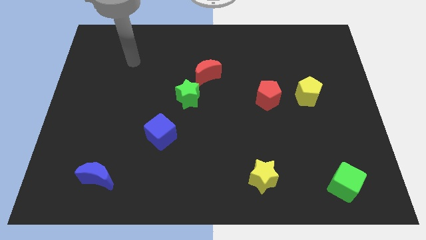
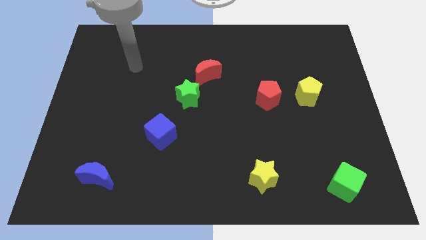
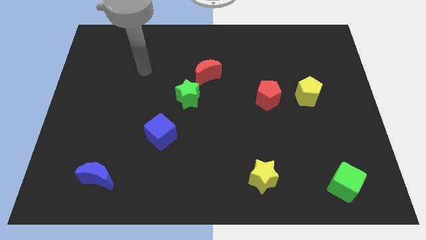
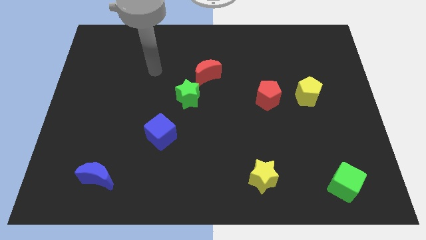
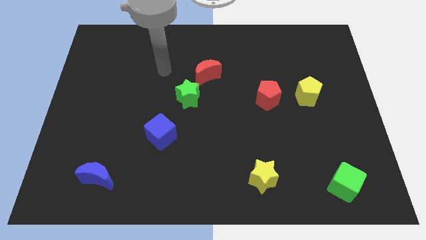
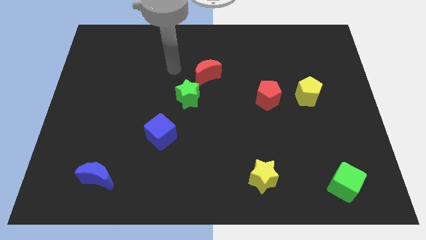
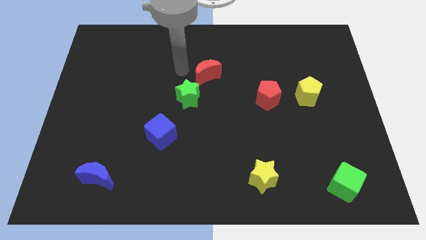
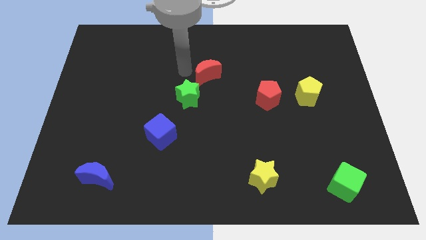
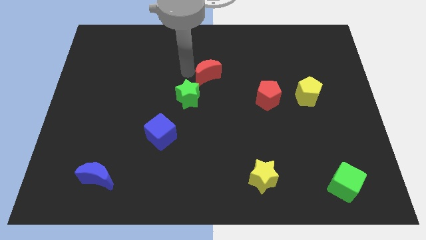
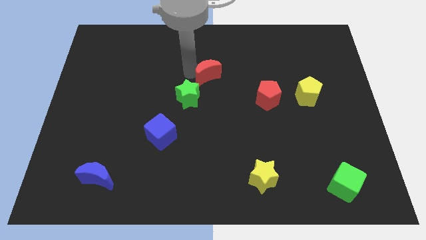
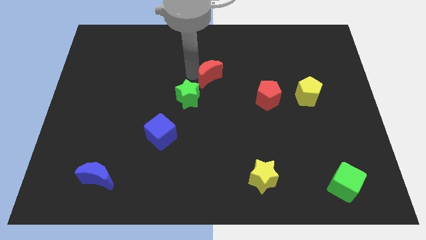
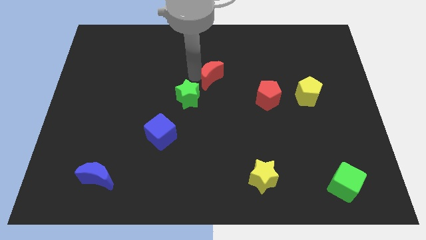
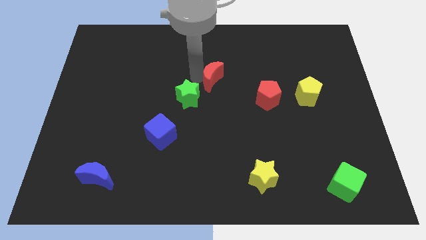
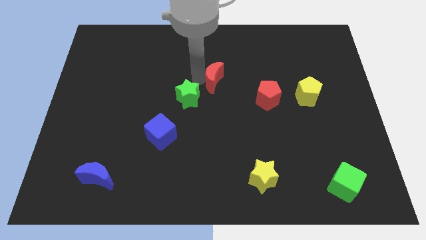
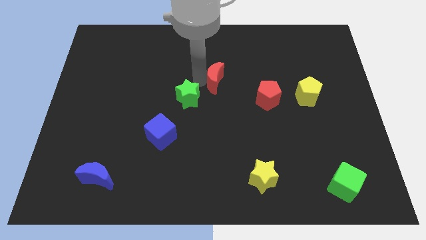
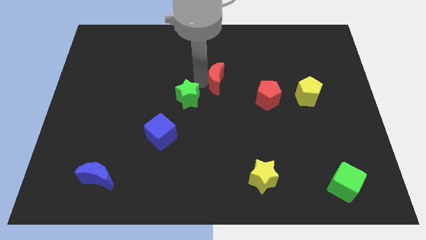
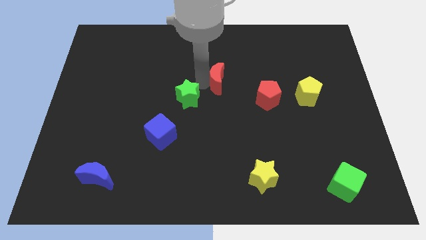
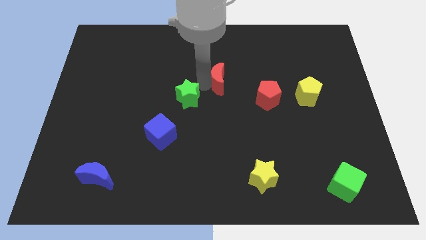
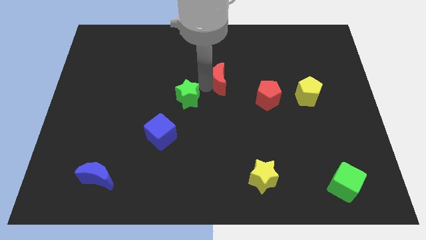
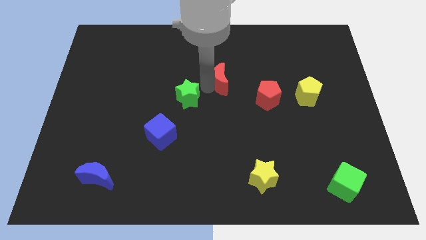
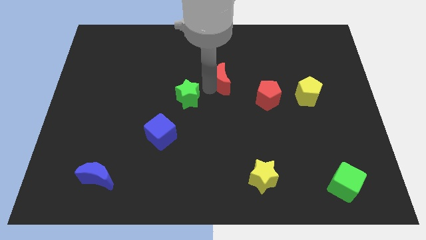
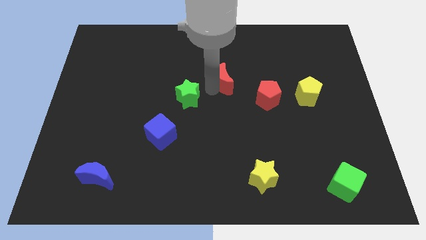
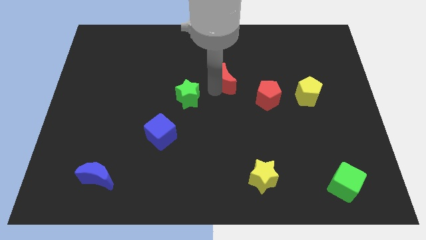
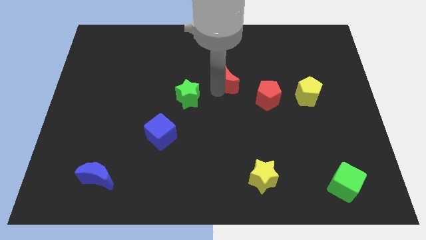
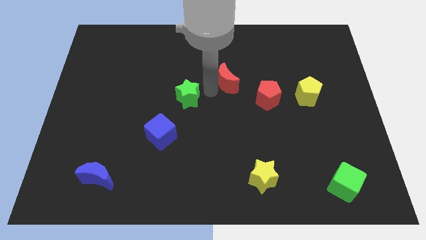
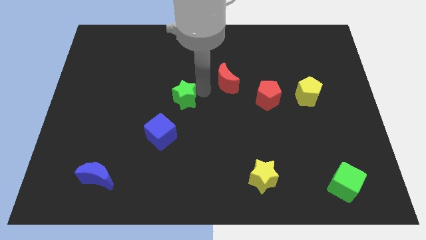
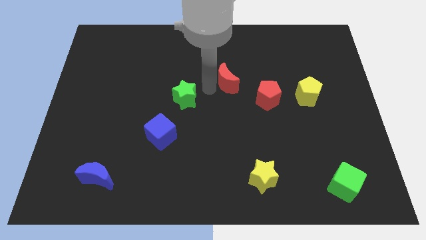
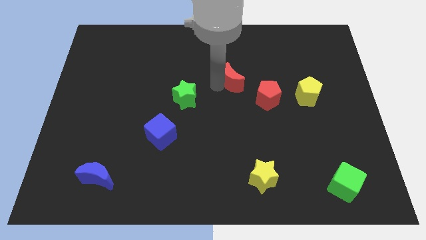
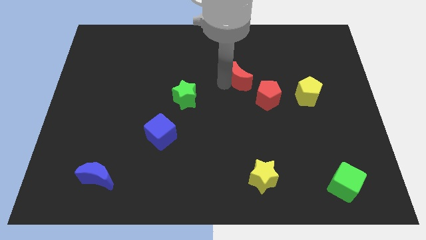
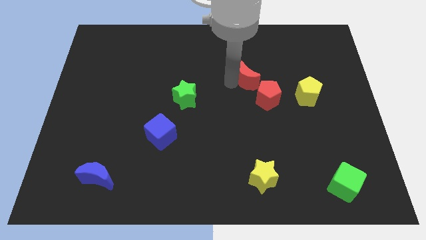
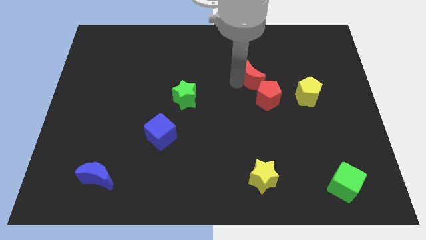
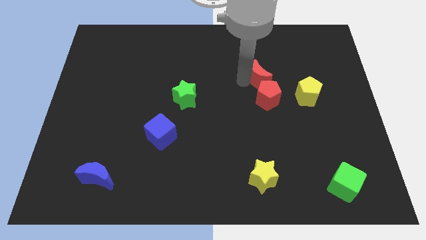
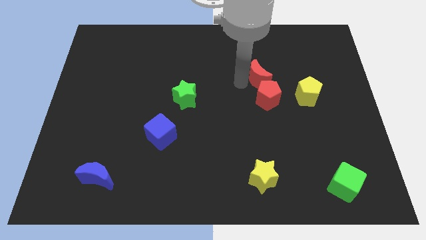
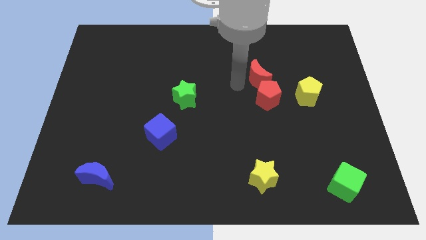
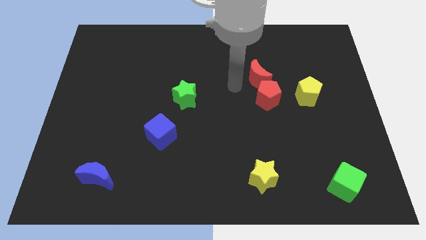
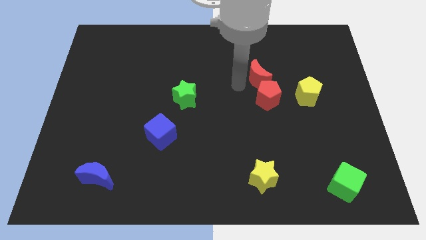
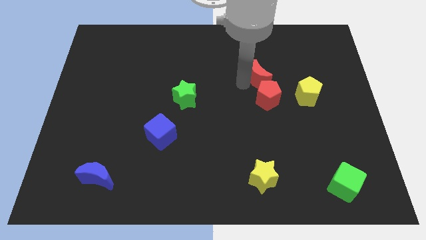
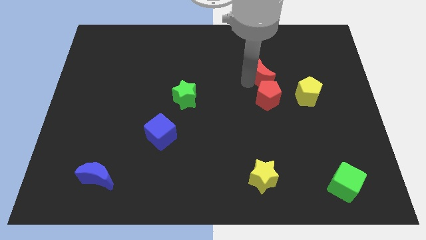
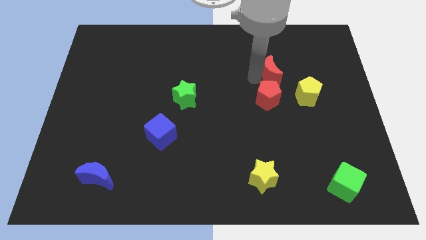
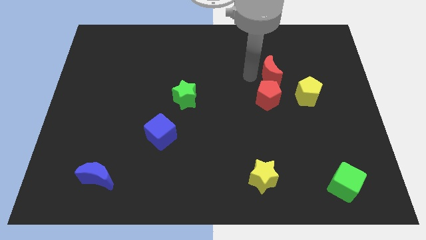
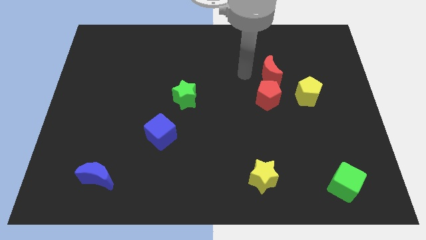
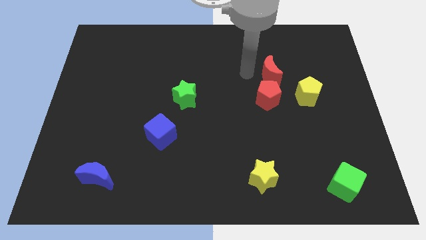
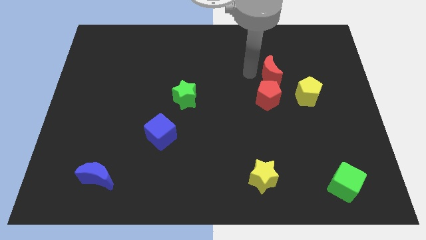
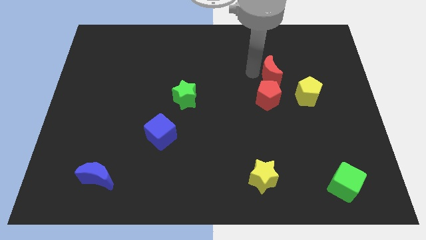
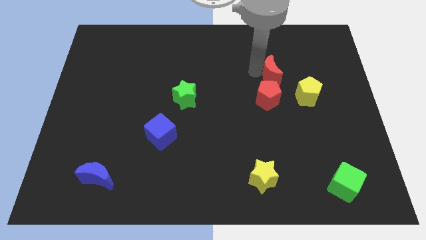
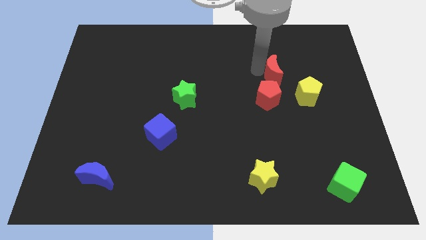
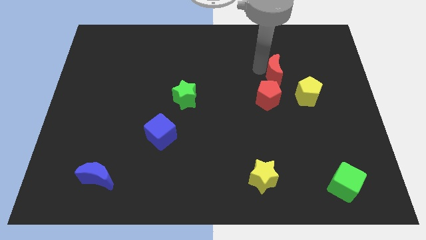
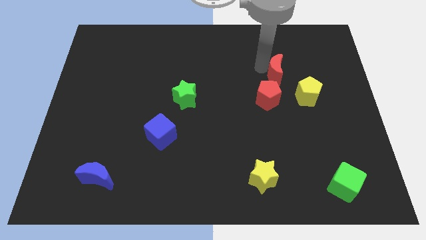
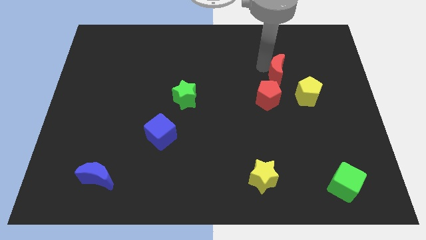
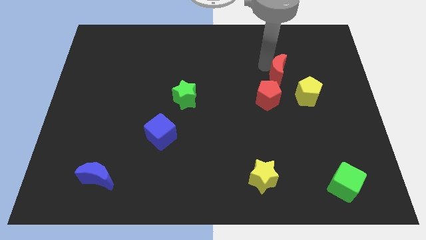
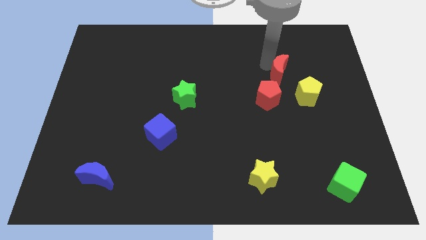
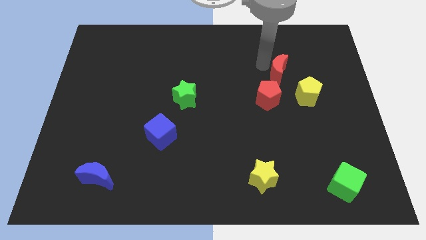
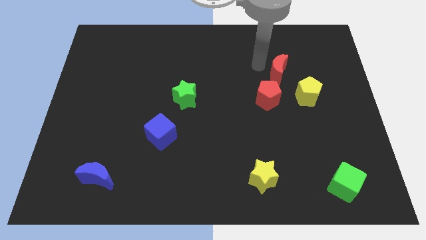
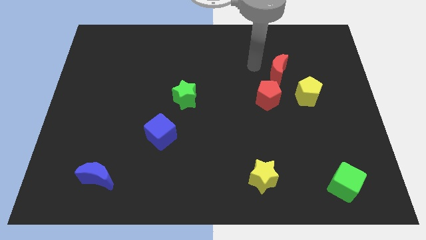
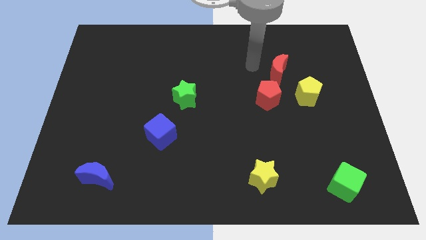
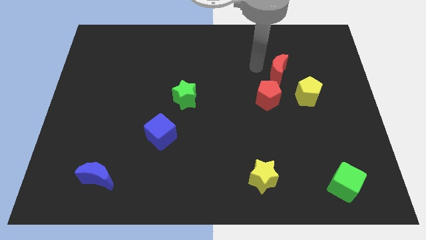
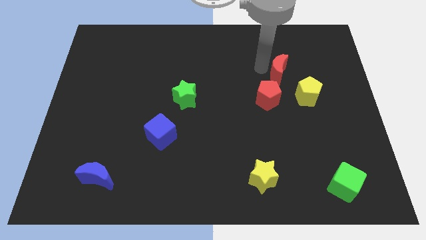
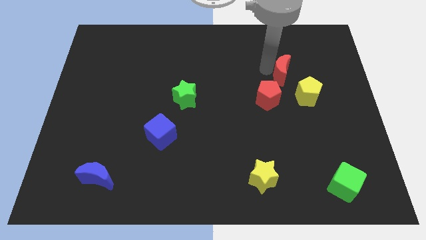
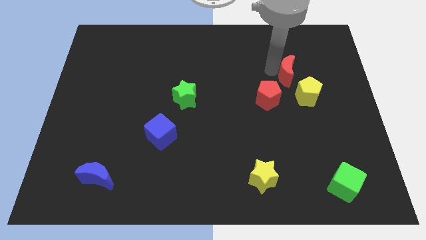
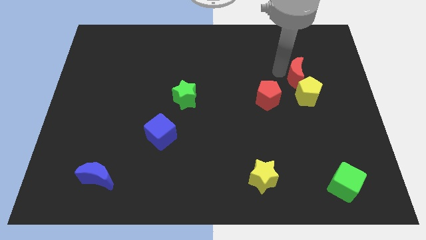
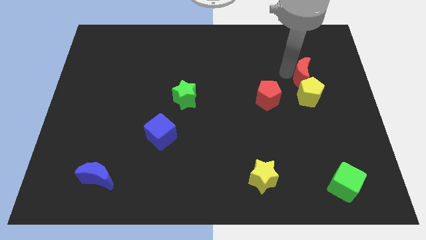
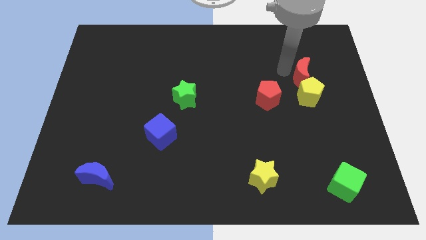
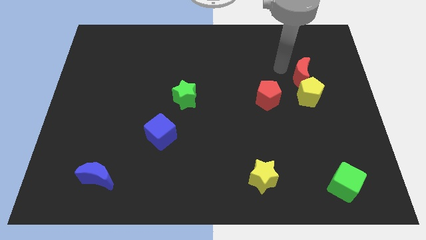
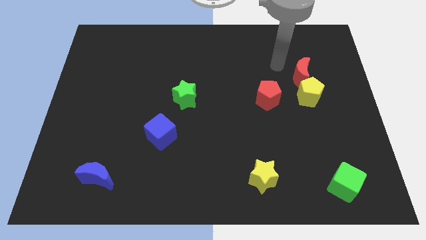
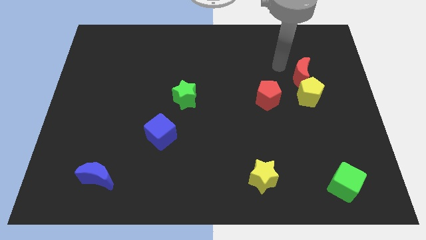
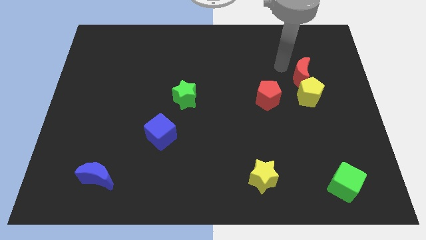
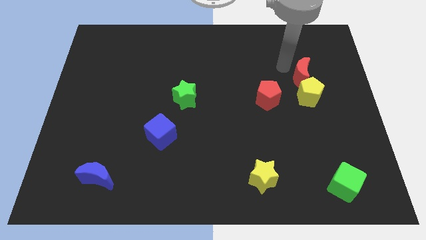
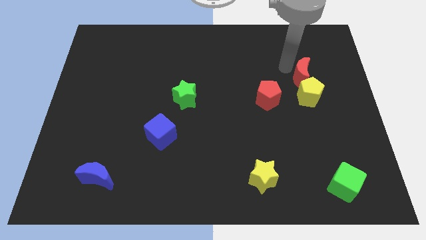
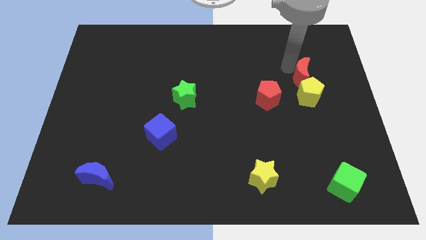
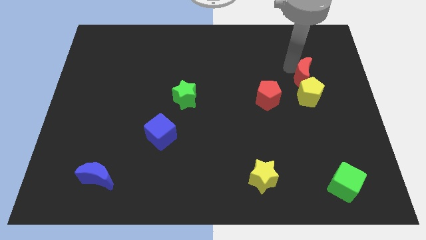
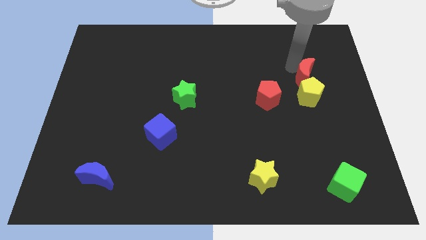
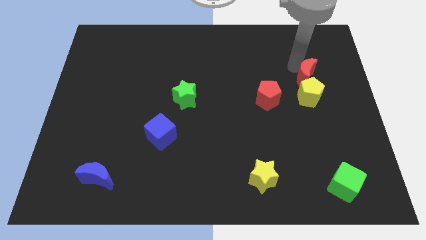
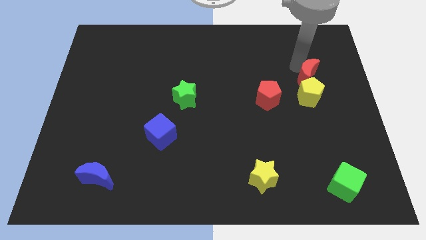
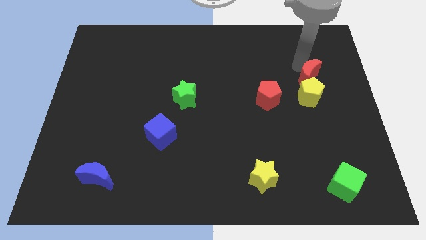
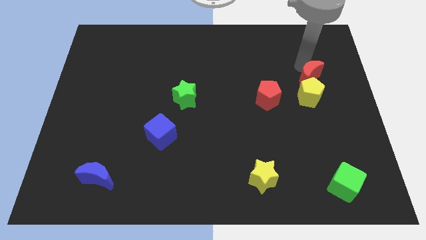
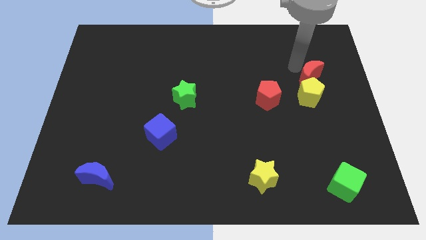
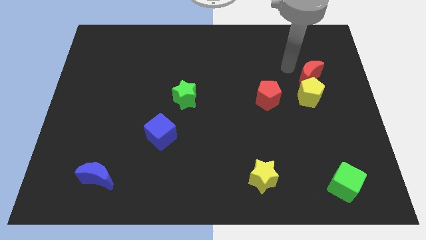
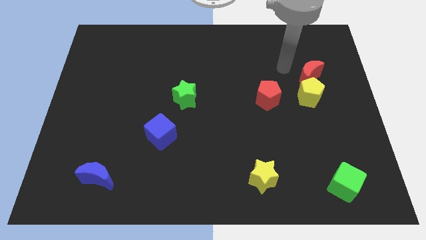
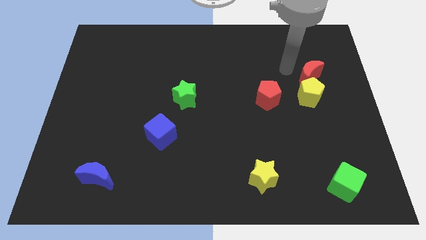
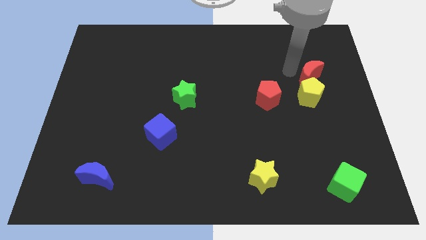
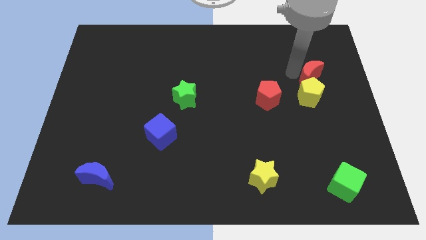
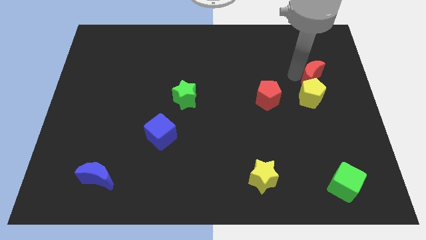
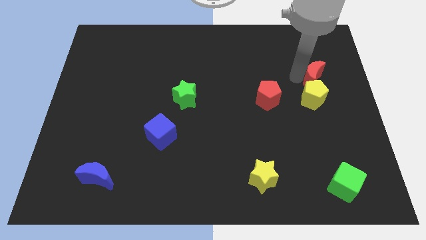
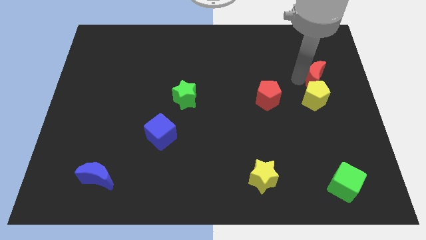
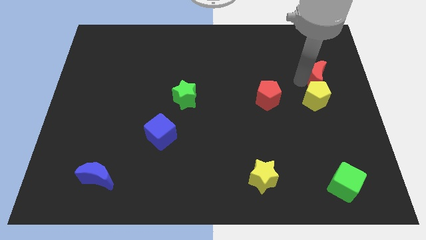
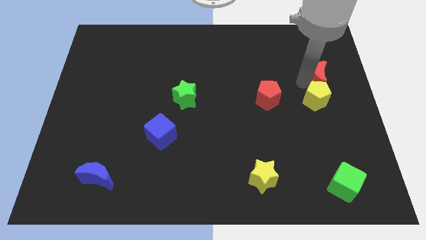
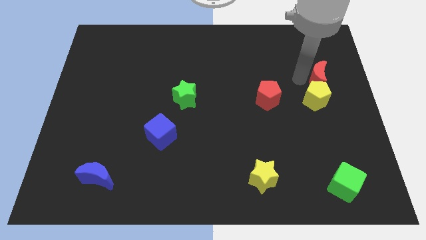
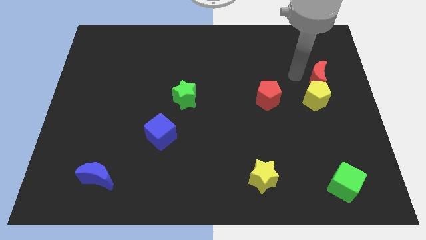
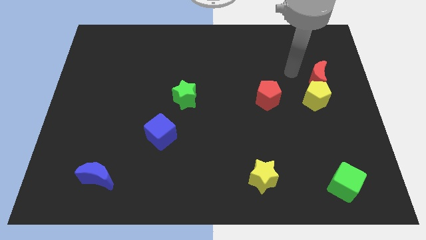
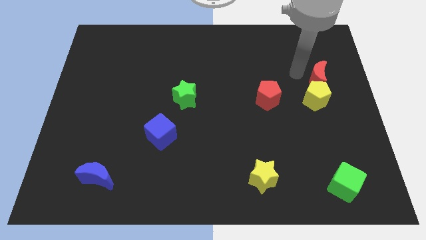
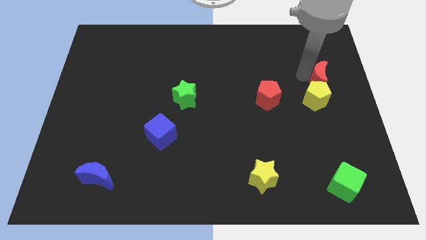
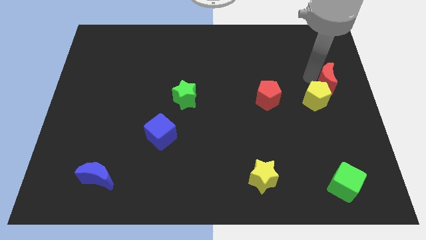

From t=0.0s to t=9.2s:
move the red moon to the center right
